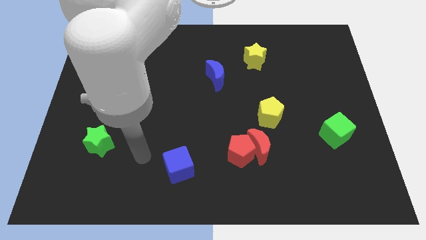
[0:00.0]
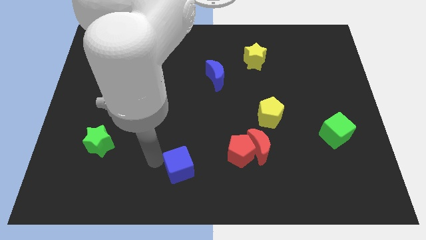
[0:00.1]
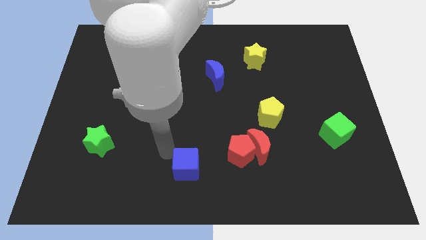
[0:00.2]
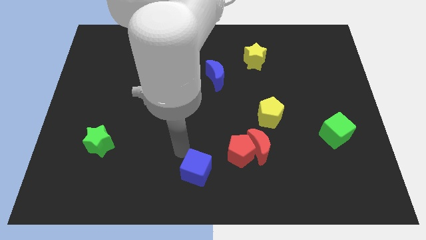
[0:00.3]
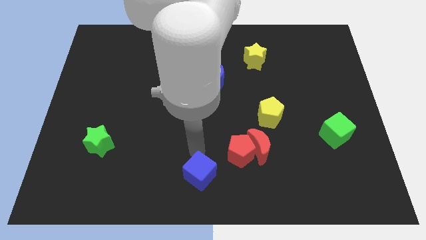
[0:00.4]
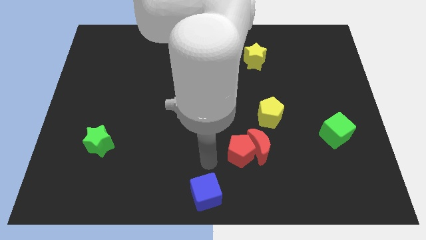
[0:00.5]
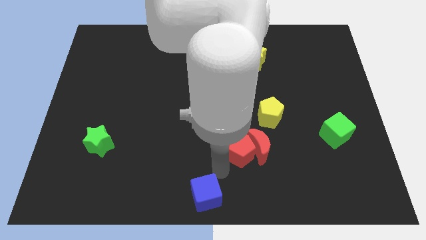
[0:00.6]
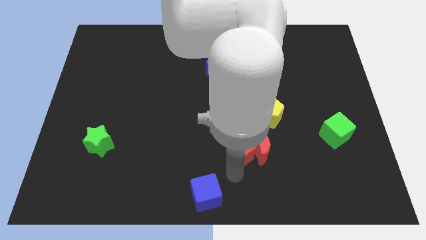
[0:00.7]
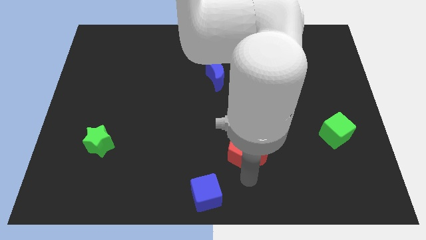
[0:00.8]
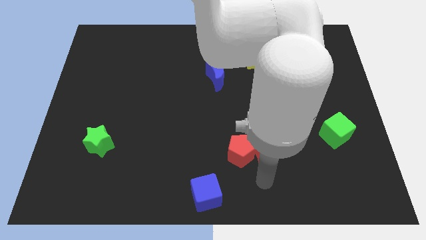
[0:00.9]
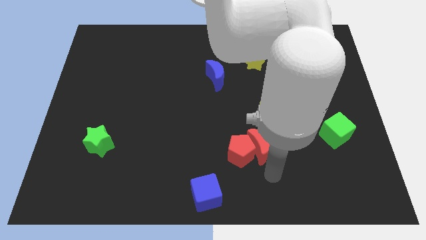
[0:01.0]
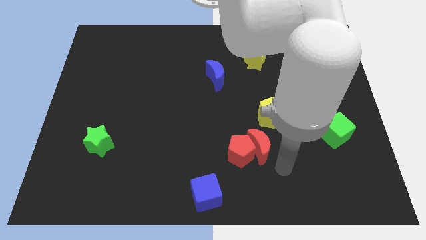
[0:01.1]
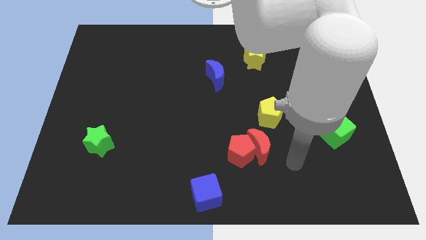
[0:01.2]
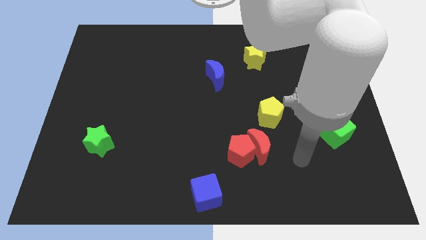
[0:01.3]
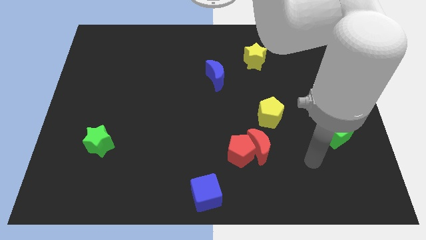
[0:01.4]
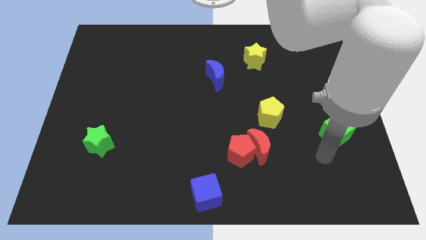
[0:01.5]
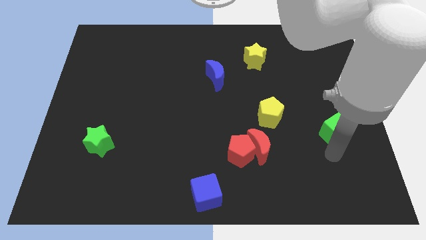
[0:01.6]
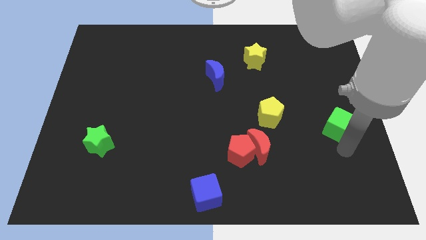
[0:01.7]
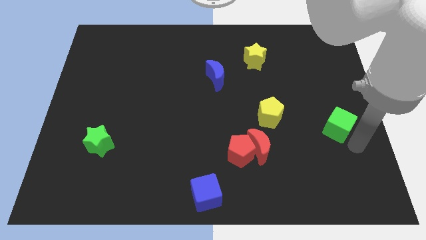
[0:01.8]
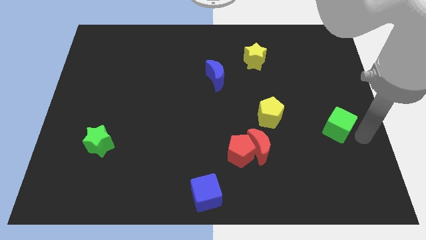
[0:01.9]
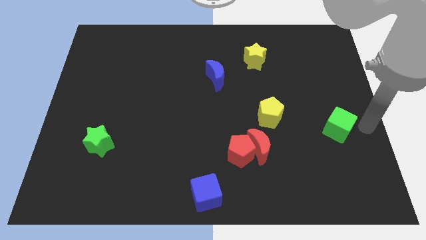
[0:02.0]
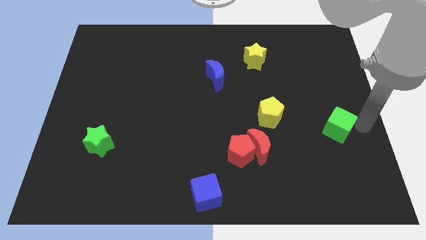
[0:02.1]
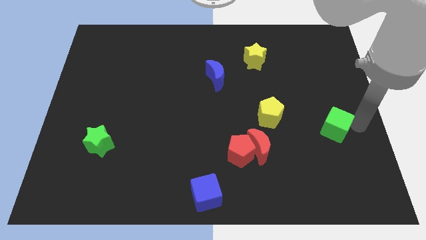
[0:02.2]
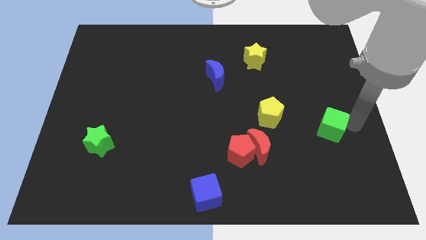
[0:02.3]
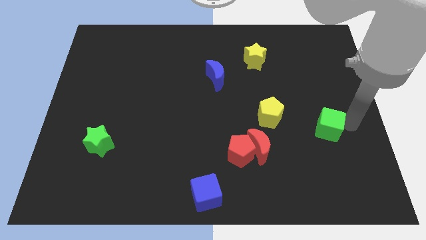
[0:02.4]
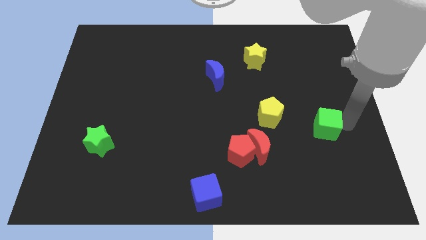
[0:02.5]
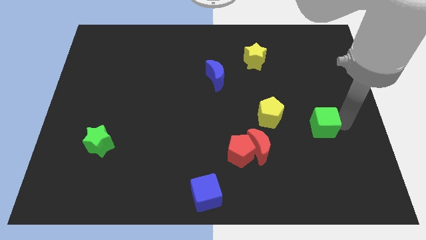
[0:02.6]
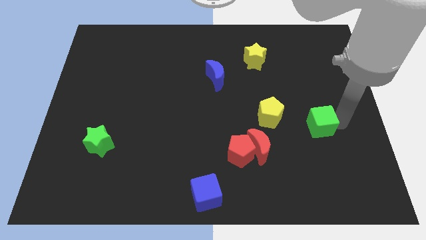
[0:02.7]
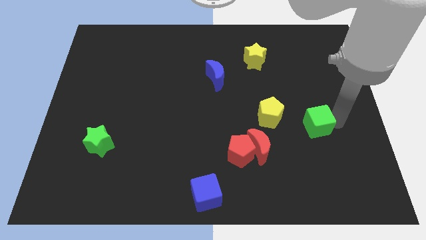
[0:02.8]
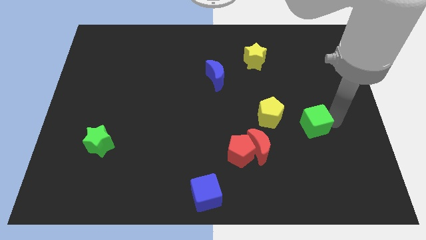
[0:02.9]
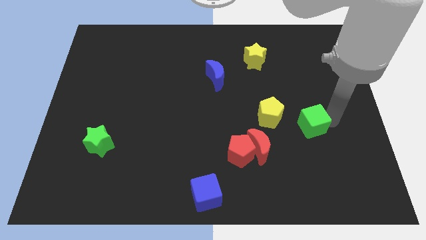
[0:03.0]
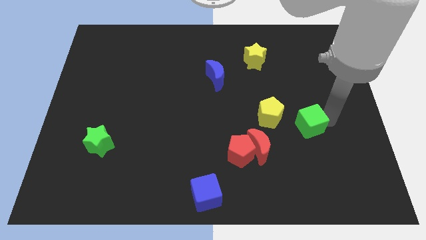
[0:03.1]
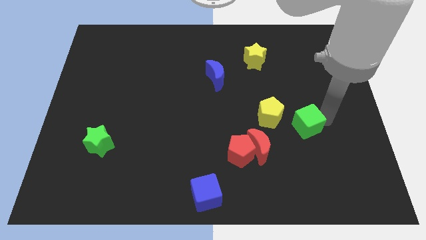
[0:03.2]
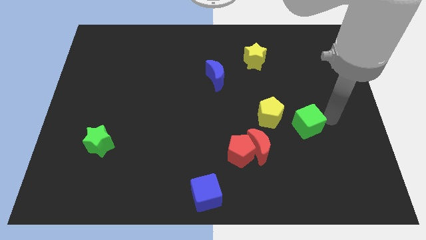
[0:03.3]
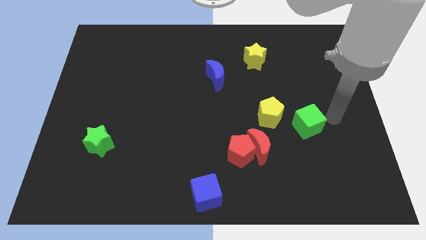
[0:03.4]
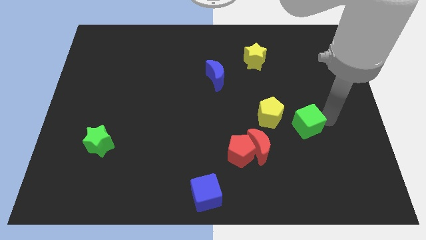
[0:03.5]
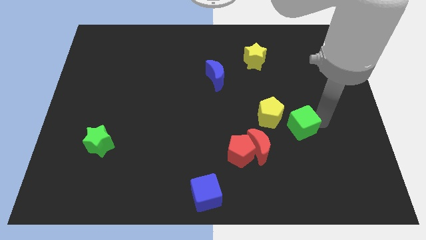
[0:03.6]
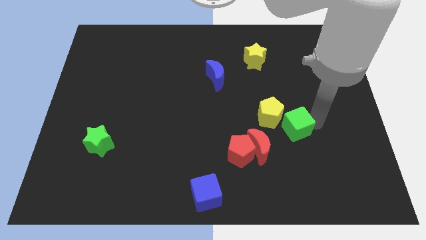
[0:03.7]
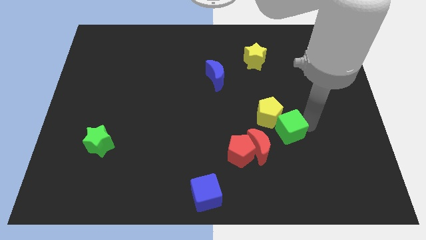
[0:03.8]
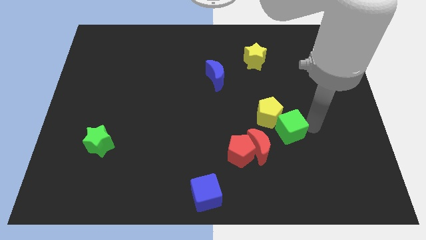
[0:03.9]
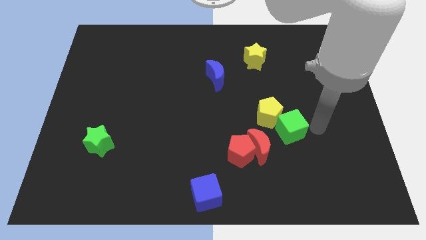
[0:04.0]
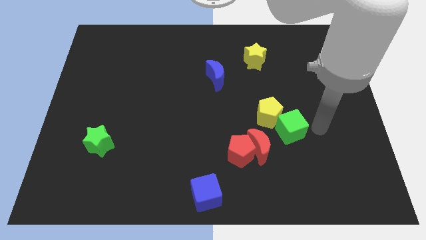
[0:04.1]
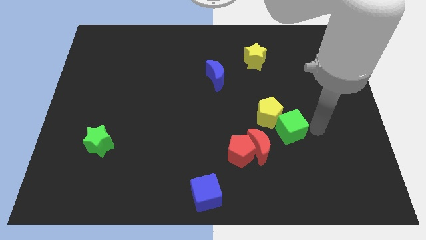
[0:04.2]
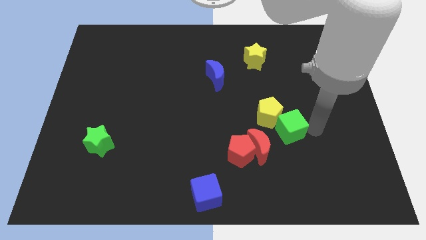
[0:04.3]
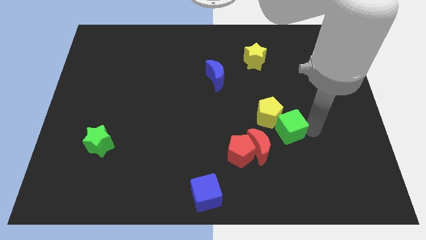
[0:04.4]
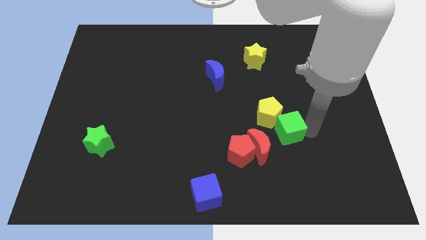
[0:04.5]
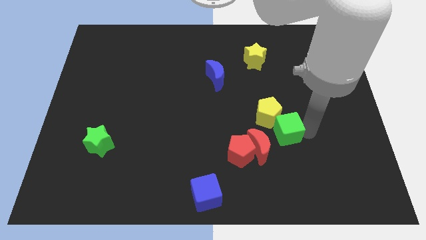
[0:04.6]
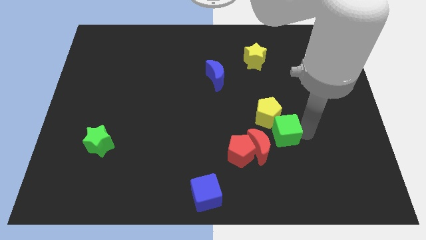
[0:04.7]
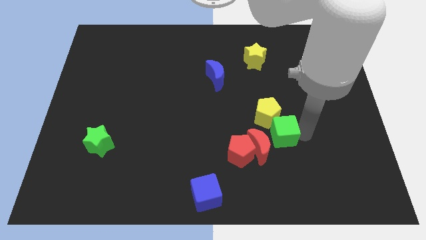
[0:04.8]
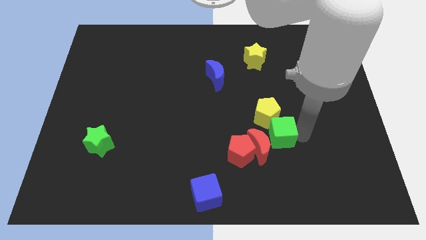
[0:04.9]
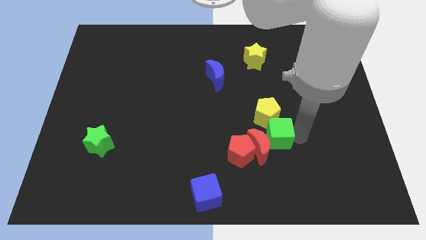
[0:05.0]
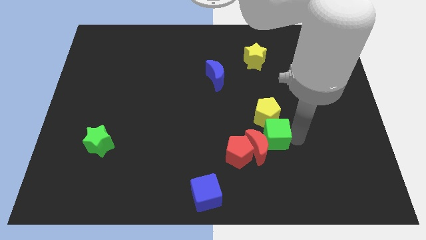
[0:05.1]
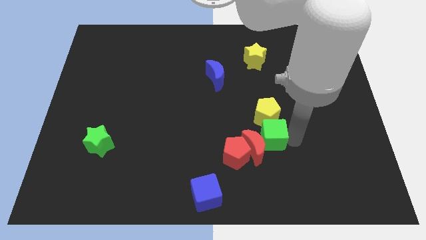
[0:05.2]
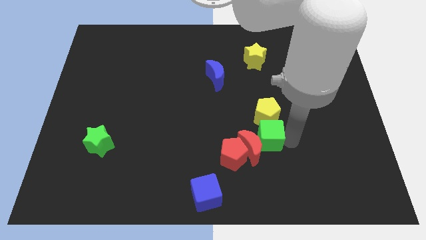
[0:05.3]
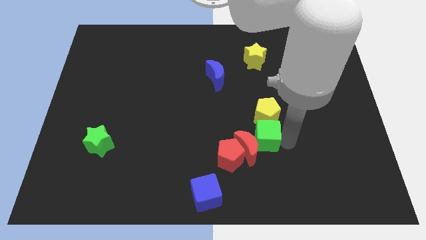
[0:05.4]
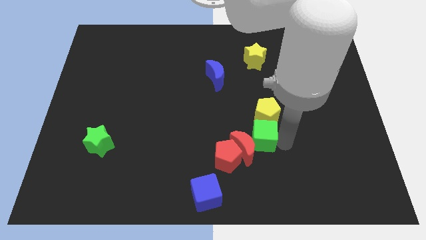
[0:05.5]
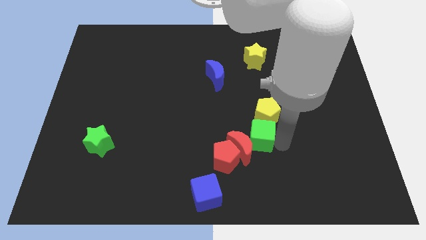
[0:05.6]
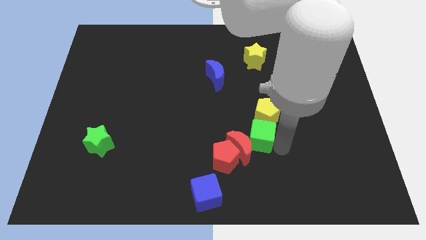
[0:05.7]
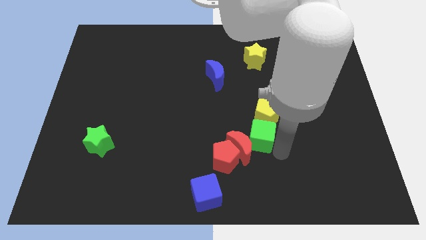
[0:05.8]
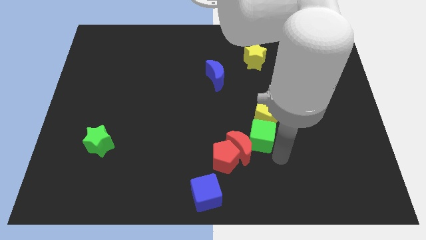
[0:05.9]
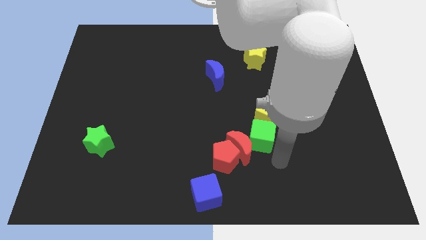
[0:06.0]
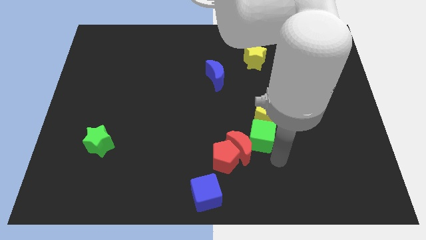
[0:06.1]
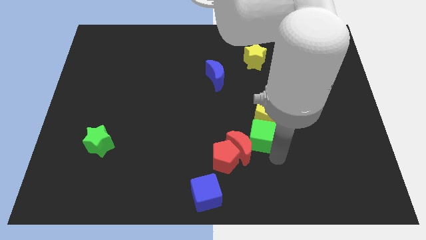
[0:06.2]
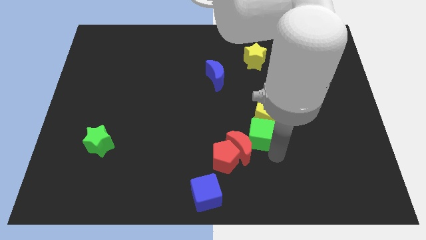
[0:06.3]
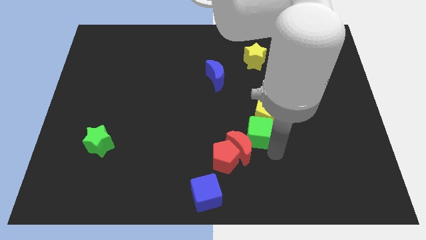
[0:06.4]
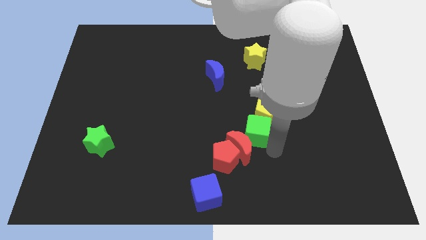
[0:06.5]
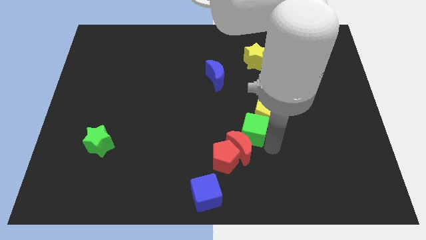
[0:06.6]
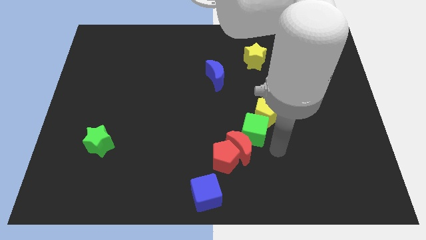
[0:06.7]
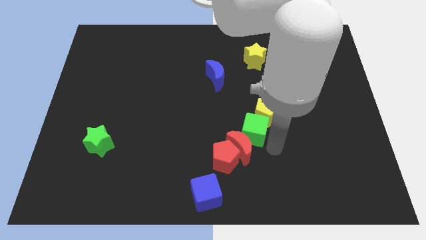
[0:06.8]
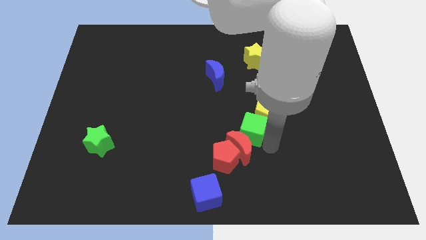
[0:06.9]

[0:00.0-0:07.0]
push the green cube to the middle of the board
